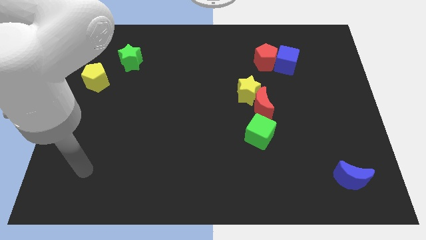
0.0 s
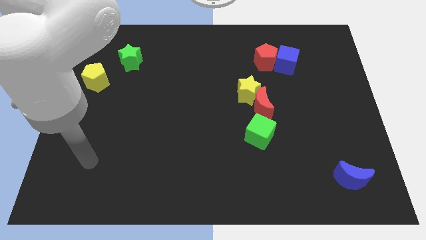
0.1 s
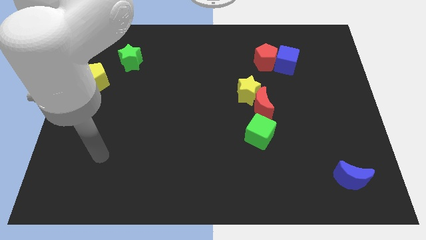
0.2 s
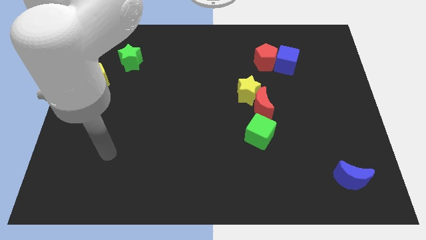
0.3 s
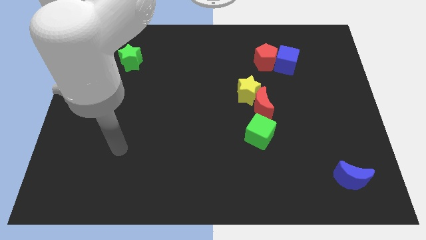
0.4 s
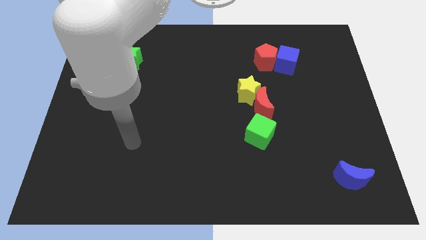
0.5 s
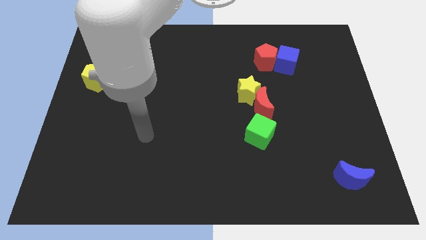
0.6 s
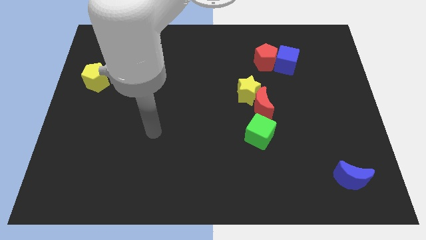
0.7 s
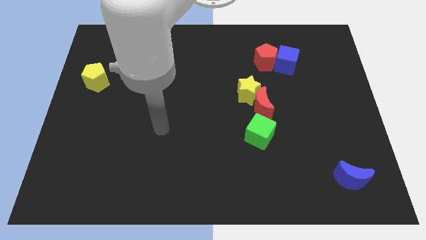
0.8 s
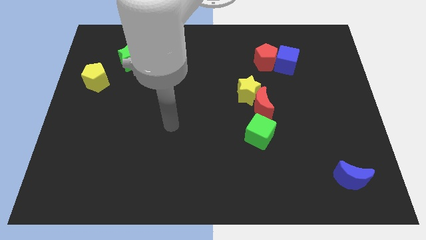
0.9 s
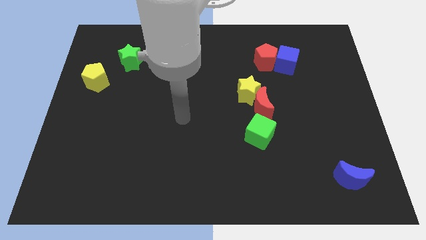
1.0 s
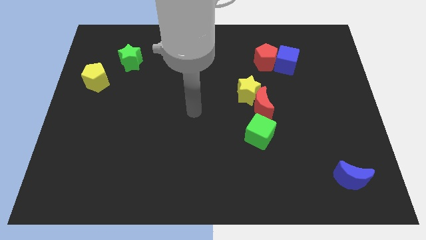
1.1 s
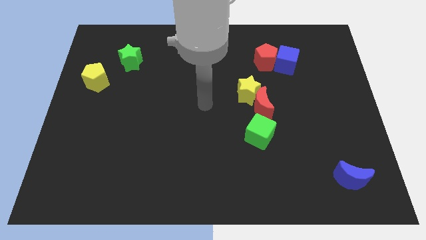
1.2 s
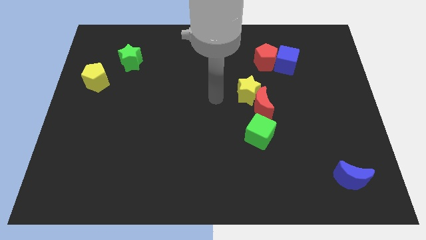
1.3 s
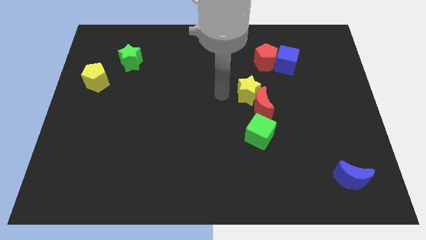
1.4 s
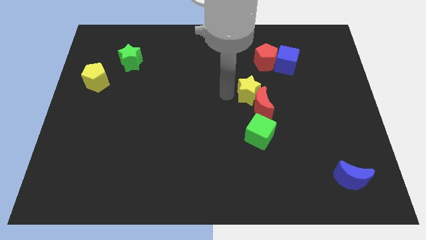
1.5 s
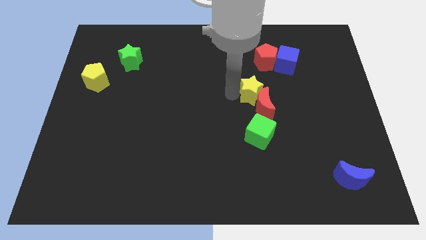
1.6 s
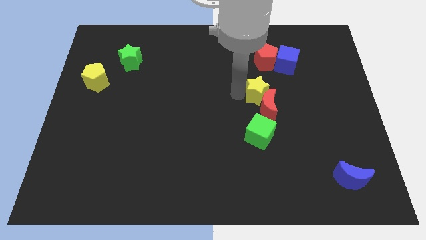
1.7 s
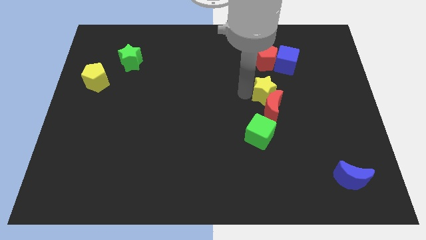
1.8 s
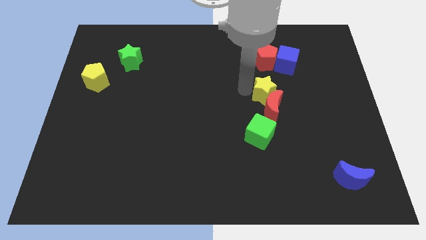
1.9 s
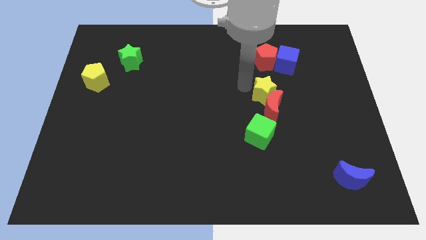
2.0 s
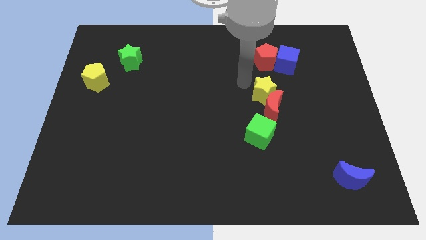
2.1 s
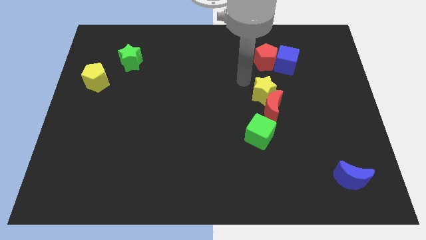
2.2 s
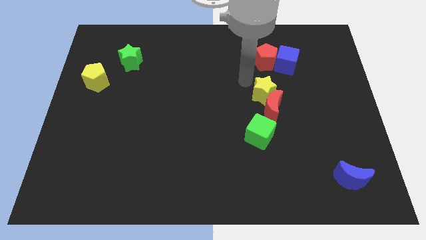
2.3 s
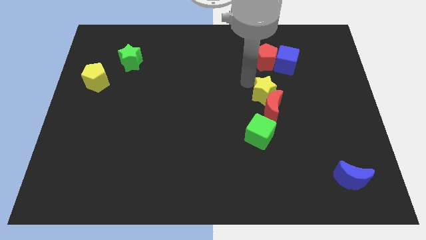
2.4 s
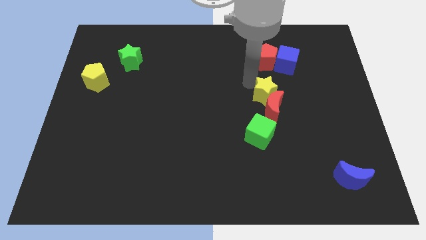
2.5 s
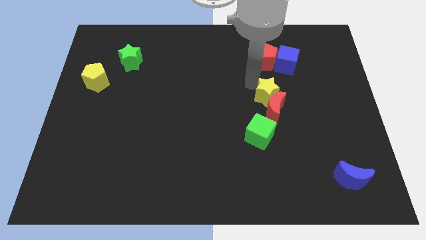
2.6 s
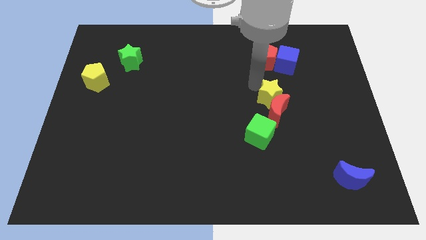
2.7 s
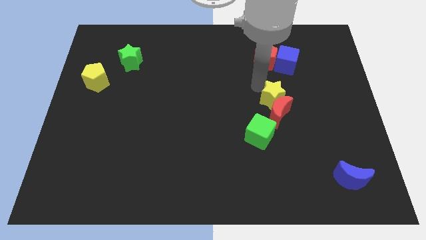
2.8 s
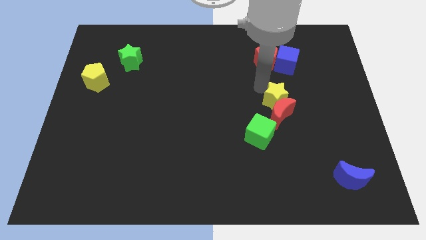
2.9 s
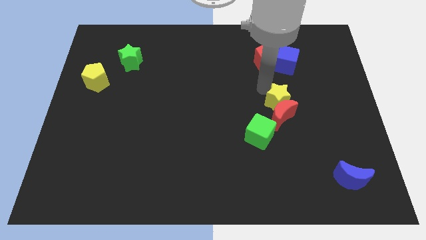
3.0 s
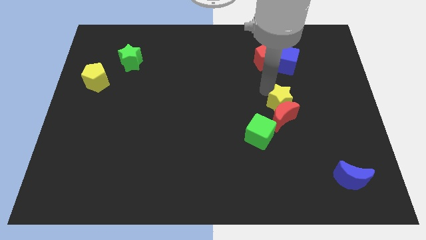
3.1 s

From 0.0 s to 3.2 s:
move the yellow star somewhat down and then right

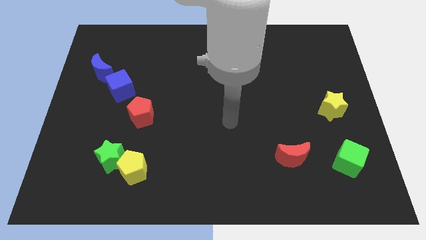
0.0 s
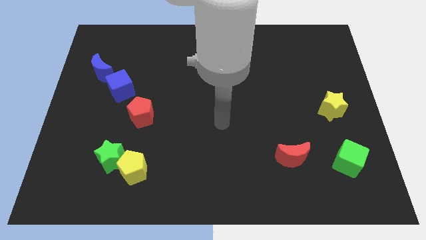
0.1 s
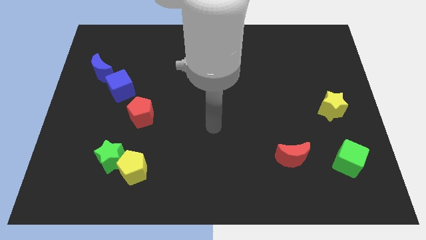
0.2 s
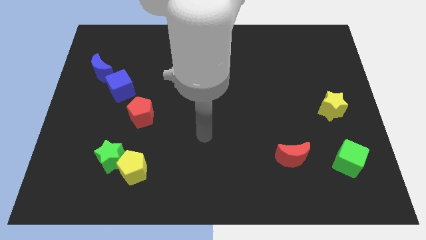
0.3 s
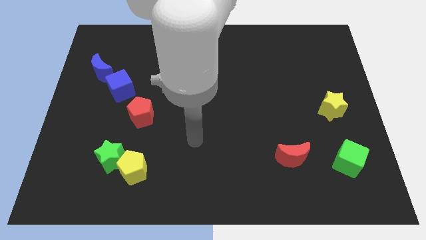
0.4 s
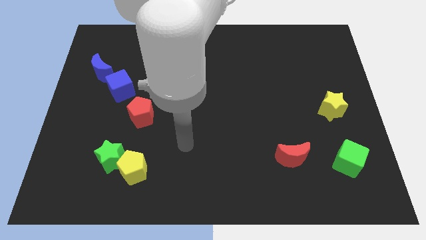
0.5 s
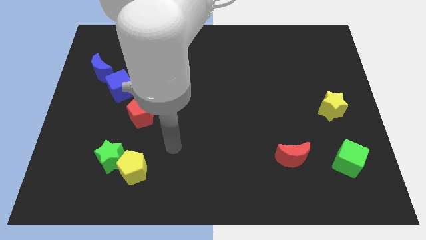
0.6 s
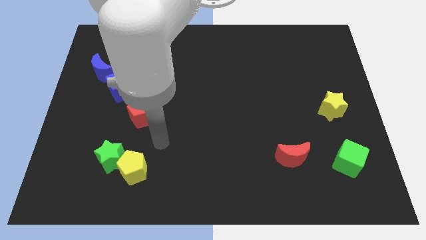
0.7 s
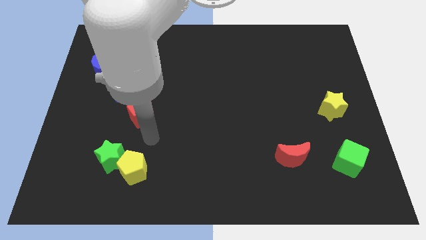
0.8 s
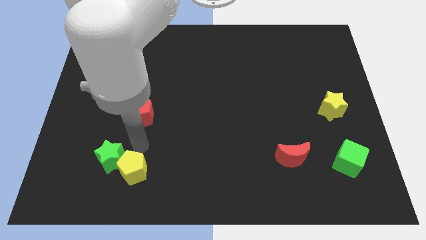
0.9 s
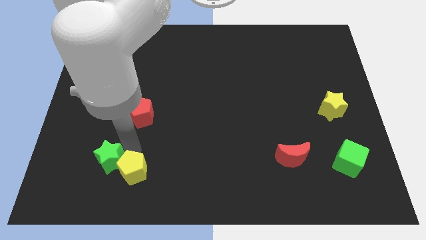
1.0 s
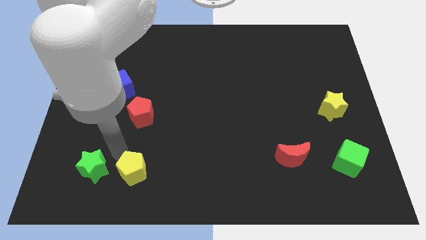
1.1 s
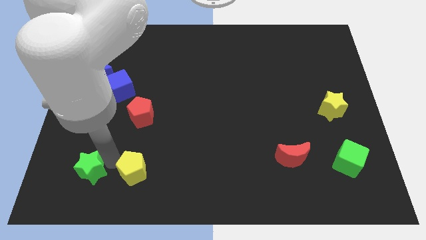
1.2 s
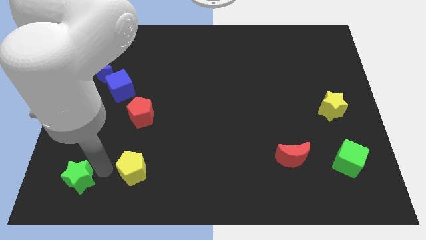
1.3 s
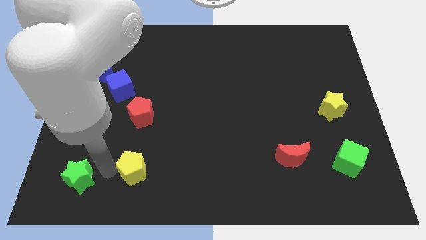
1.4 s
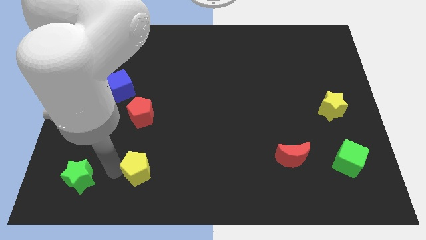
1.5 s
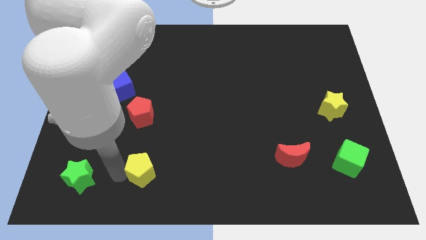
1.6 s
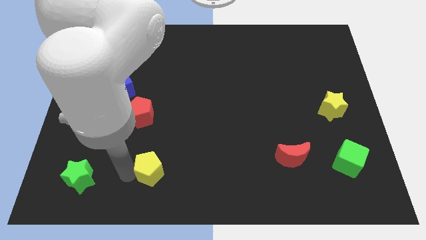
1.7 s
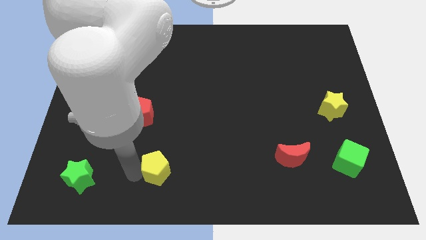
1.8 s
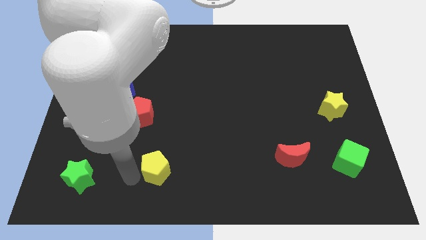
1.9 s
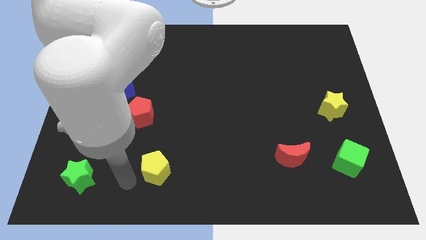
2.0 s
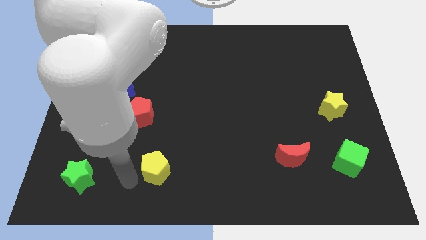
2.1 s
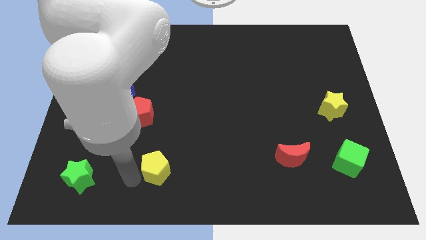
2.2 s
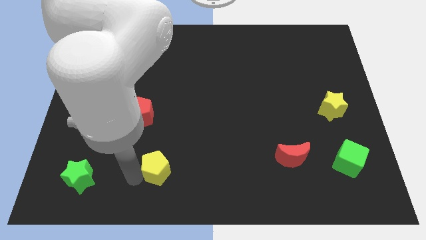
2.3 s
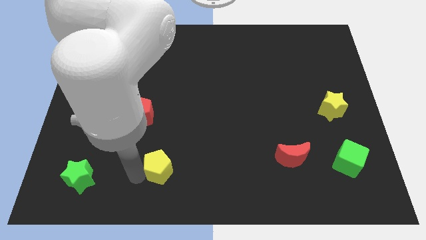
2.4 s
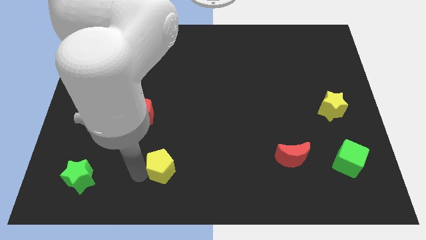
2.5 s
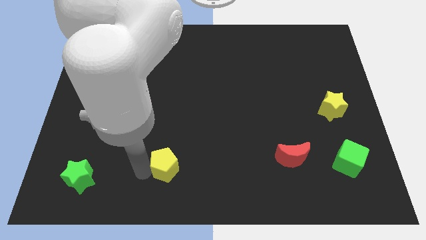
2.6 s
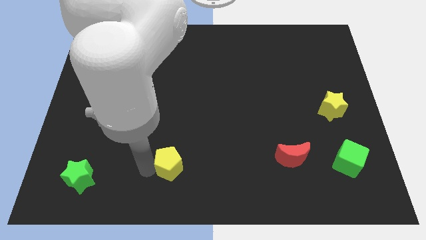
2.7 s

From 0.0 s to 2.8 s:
move the yellow pentagon right a little

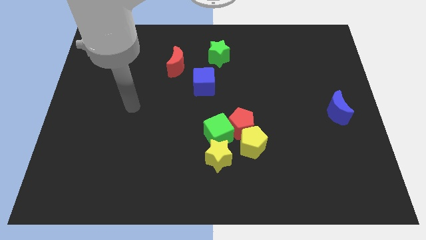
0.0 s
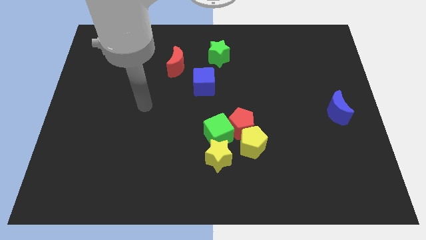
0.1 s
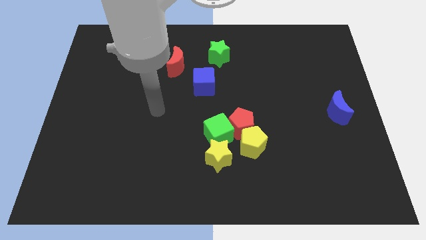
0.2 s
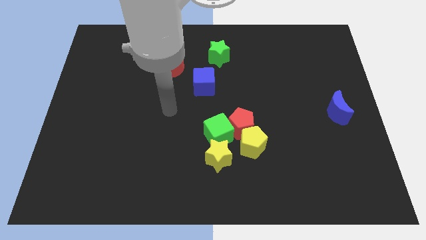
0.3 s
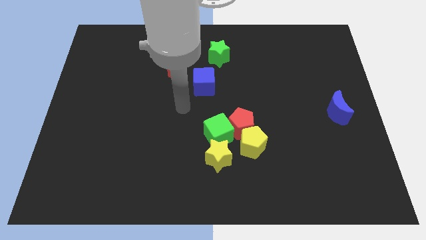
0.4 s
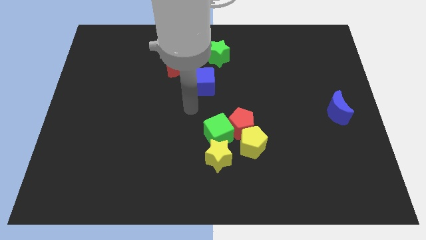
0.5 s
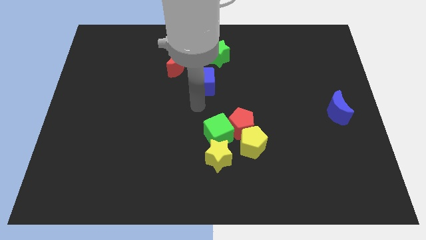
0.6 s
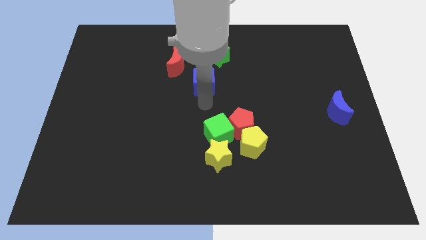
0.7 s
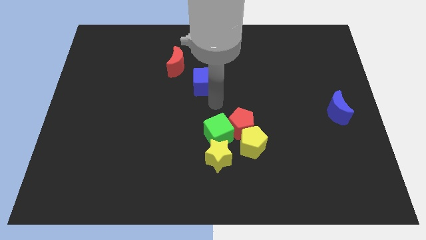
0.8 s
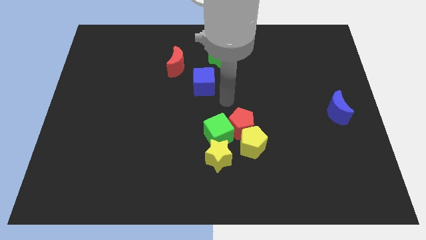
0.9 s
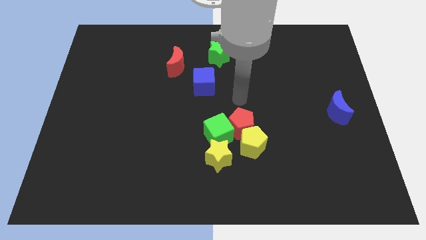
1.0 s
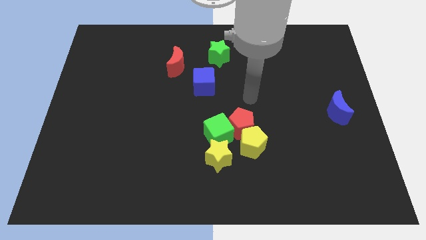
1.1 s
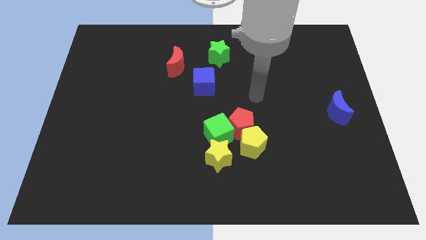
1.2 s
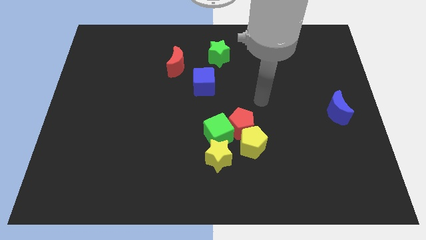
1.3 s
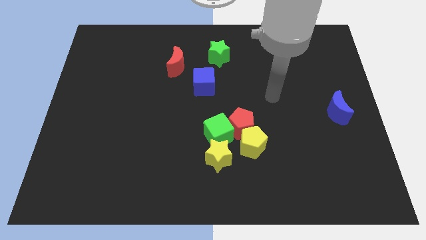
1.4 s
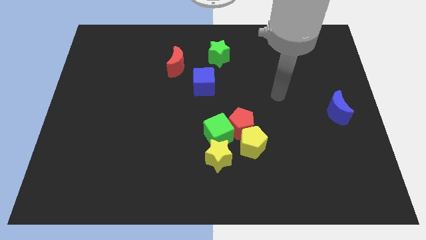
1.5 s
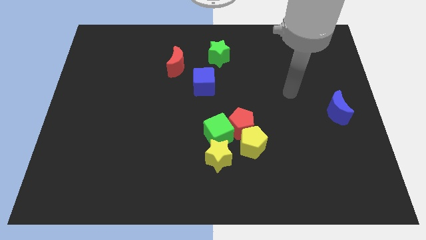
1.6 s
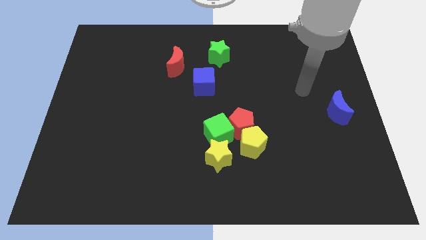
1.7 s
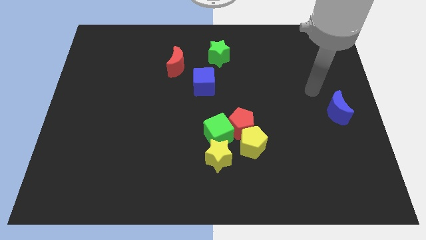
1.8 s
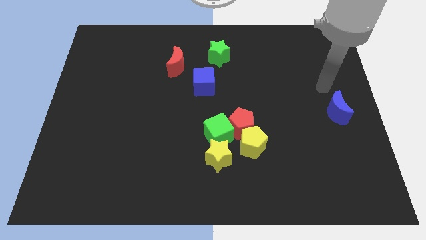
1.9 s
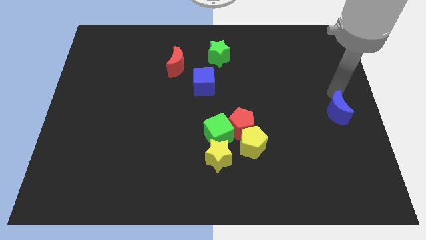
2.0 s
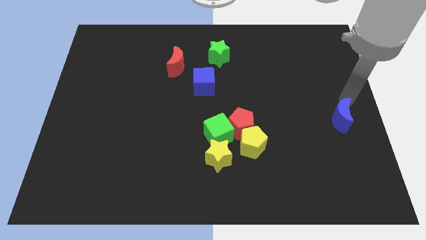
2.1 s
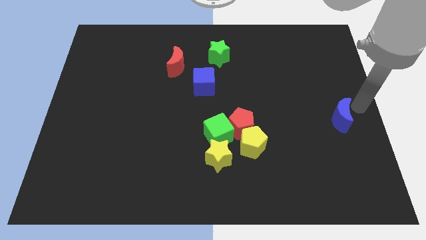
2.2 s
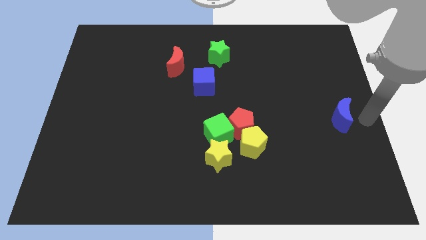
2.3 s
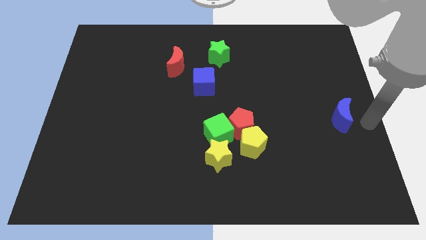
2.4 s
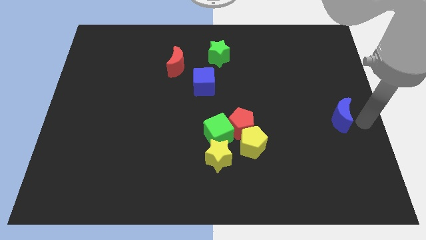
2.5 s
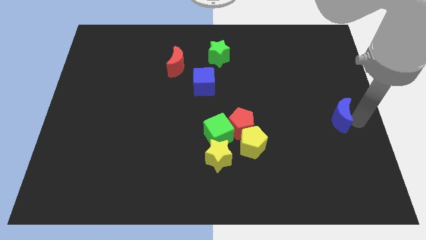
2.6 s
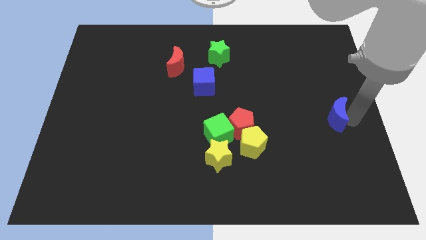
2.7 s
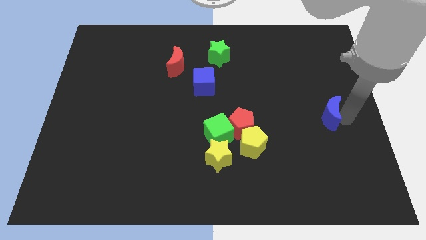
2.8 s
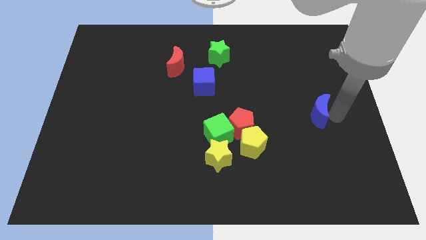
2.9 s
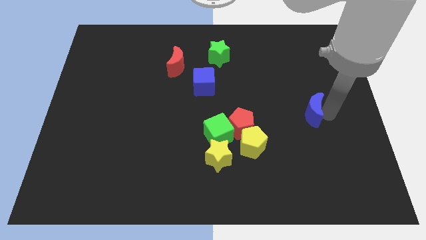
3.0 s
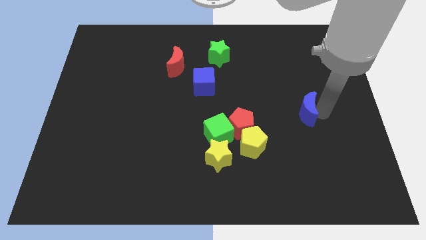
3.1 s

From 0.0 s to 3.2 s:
move the blue moon a bit to the left
